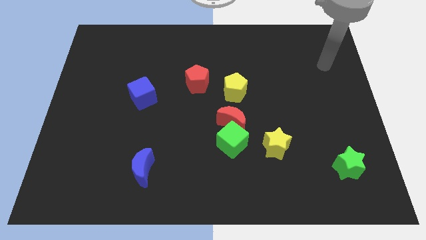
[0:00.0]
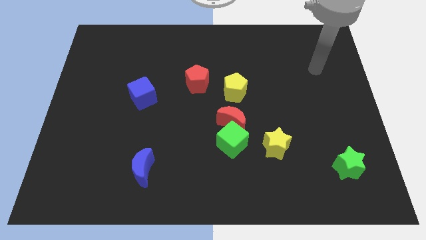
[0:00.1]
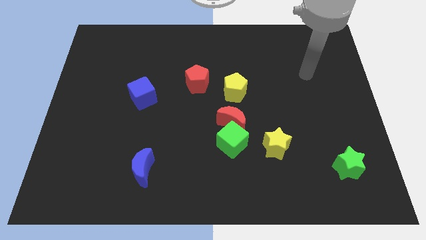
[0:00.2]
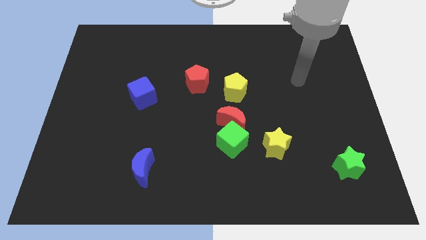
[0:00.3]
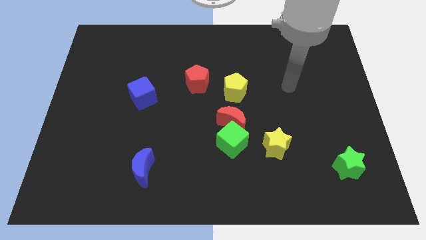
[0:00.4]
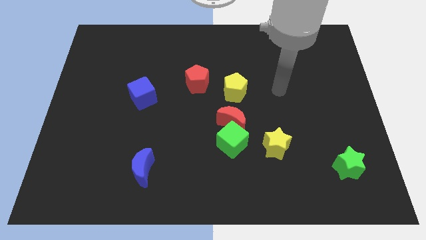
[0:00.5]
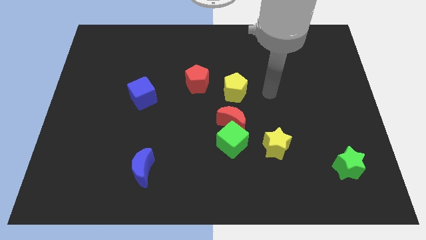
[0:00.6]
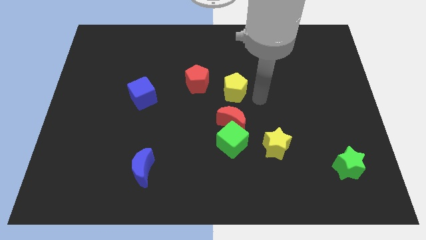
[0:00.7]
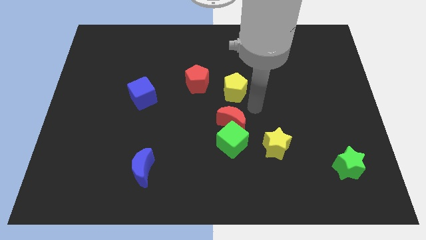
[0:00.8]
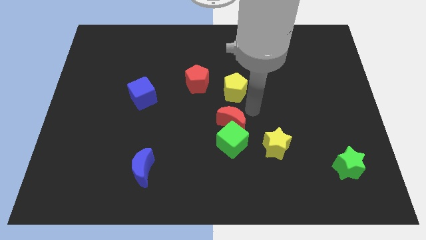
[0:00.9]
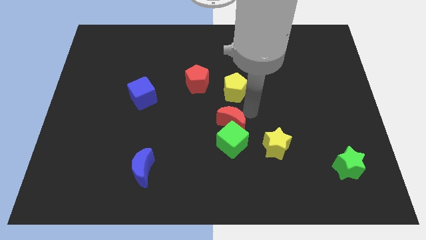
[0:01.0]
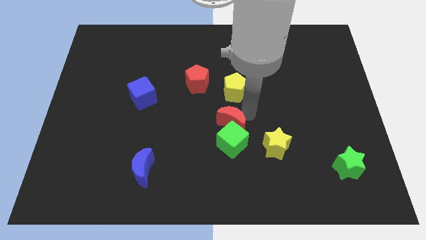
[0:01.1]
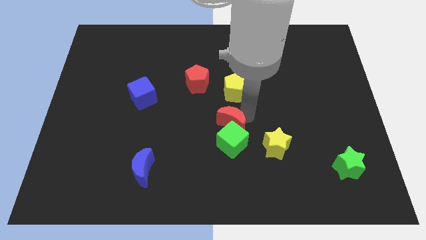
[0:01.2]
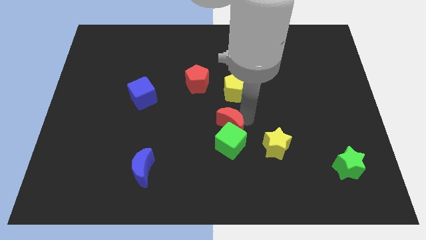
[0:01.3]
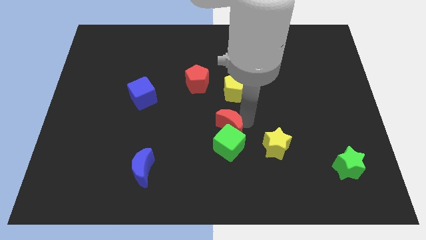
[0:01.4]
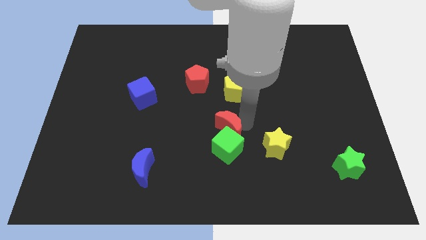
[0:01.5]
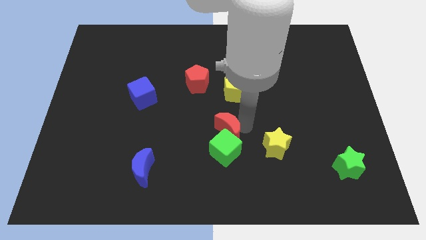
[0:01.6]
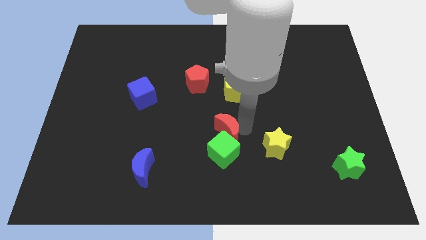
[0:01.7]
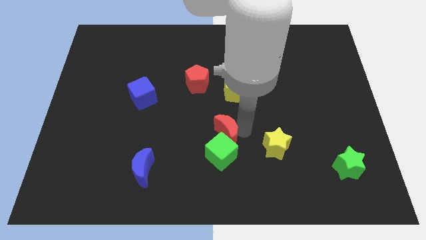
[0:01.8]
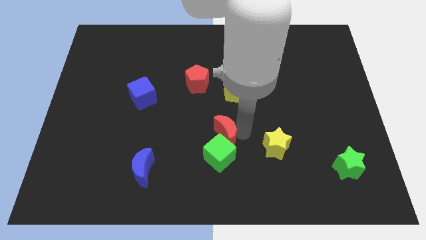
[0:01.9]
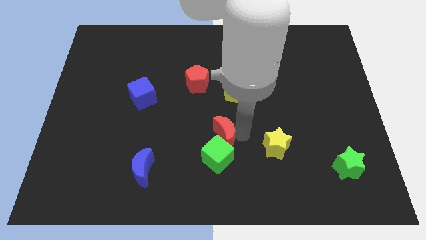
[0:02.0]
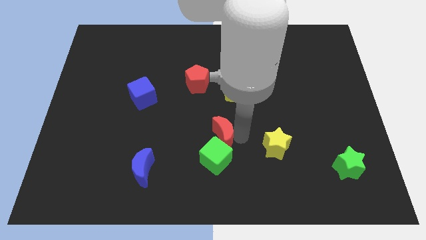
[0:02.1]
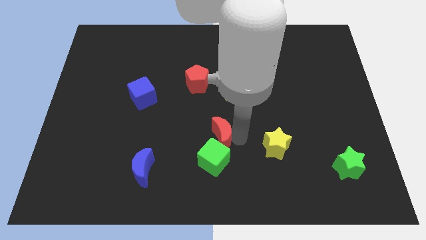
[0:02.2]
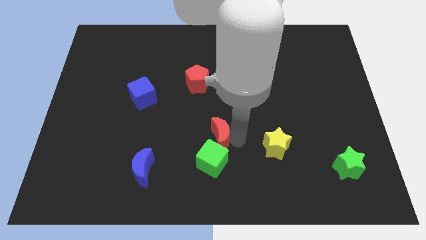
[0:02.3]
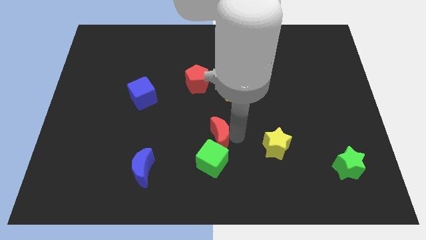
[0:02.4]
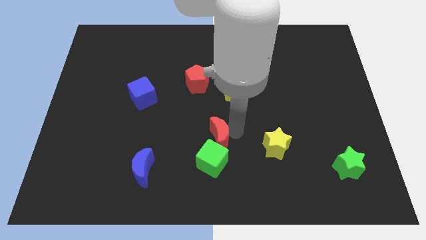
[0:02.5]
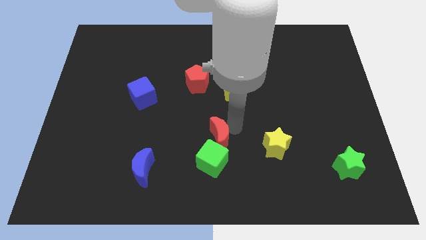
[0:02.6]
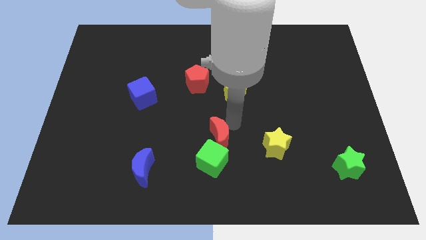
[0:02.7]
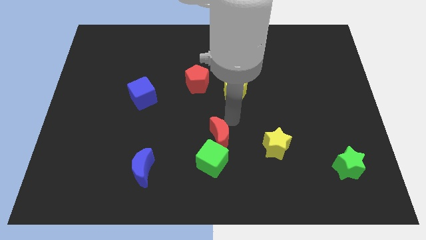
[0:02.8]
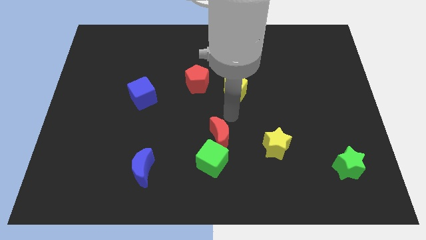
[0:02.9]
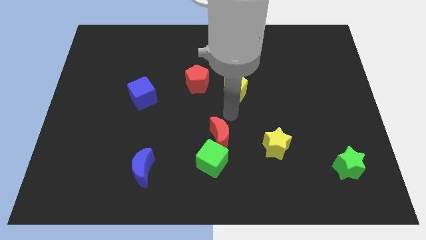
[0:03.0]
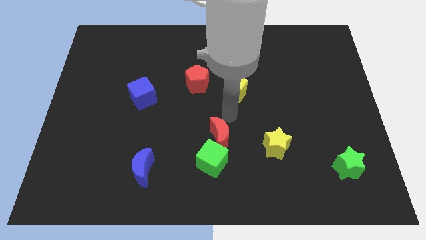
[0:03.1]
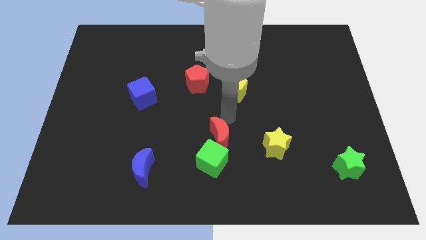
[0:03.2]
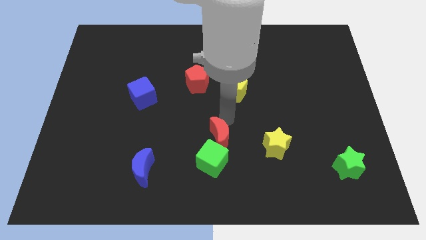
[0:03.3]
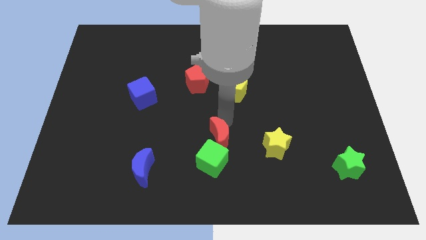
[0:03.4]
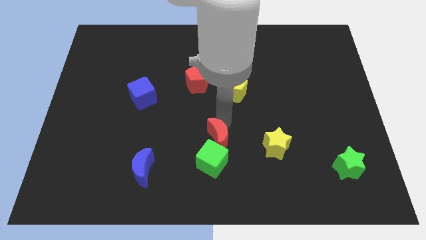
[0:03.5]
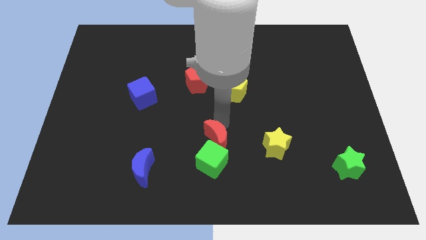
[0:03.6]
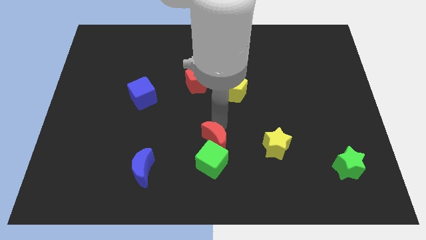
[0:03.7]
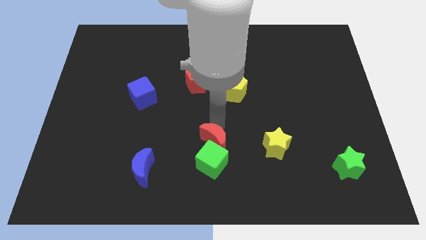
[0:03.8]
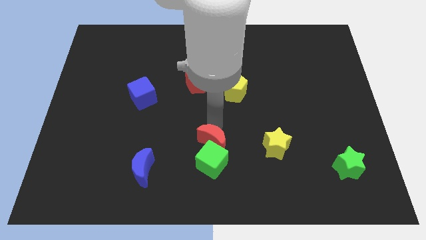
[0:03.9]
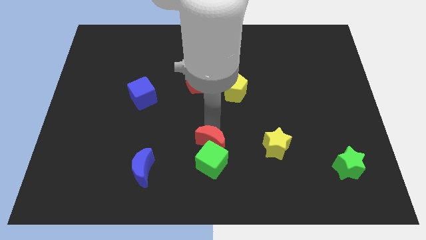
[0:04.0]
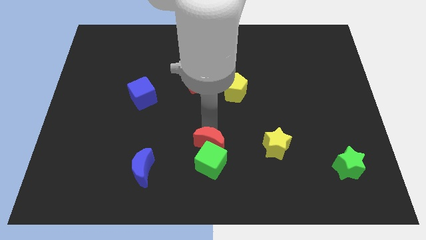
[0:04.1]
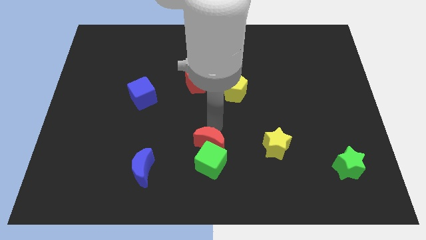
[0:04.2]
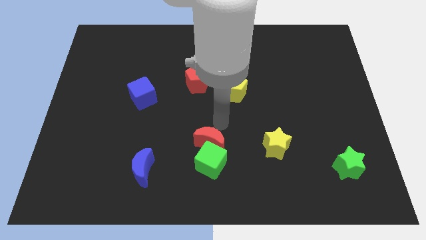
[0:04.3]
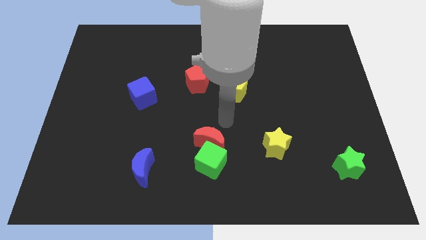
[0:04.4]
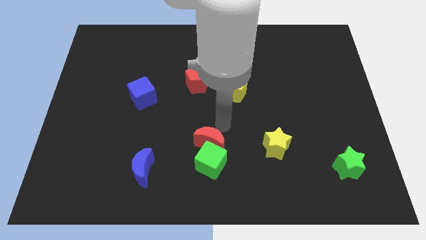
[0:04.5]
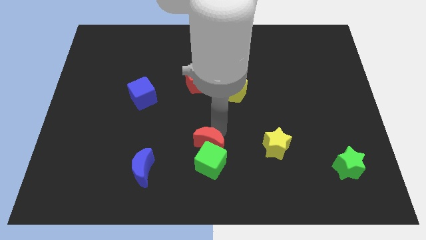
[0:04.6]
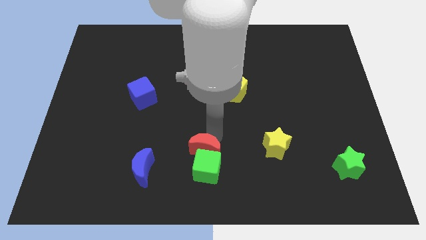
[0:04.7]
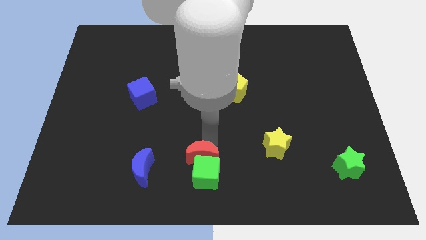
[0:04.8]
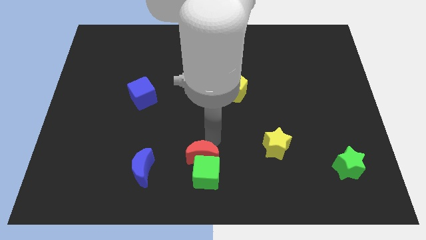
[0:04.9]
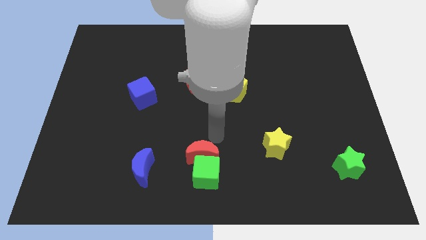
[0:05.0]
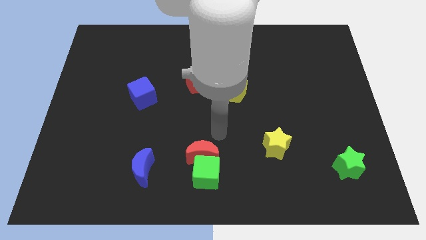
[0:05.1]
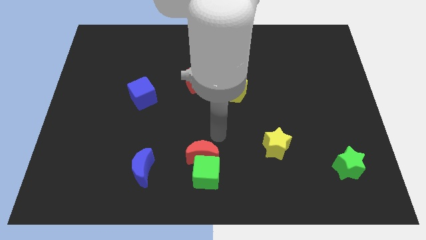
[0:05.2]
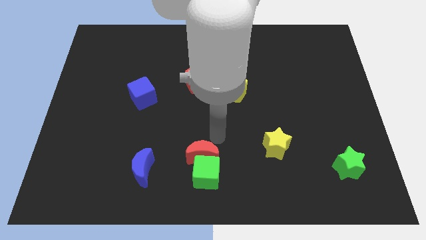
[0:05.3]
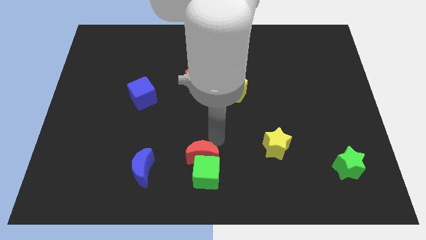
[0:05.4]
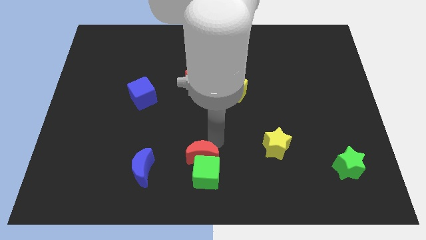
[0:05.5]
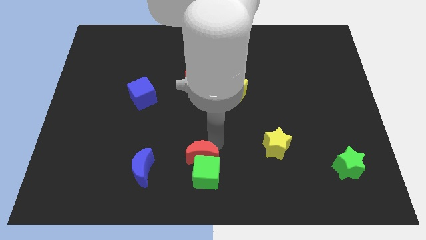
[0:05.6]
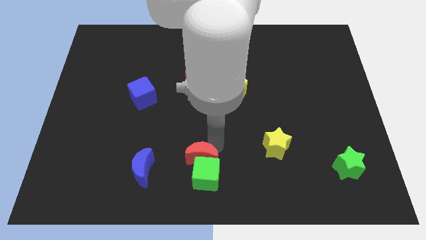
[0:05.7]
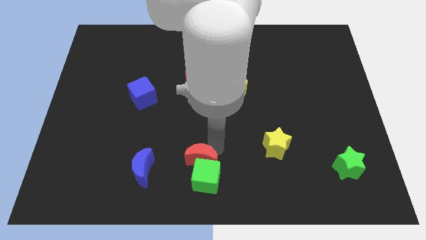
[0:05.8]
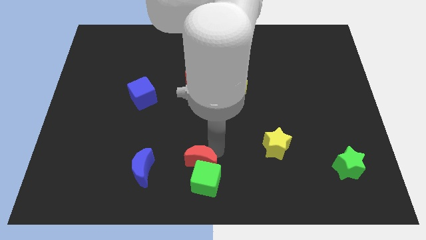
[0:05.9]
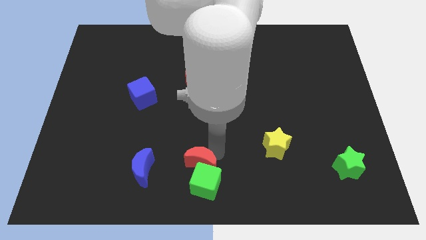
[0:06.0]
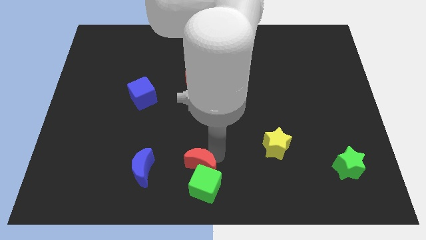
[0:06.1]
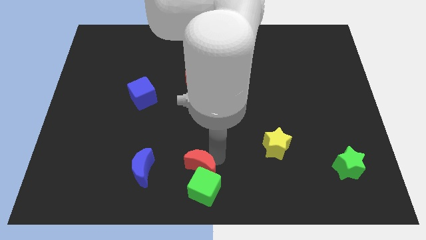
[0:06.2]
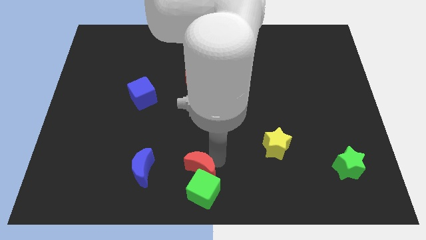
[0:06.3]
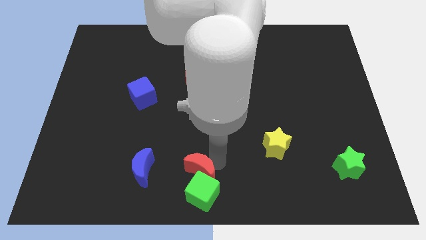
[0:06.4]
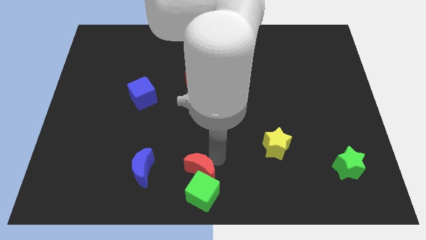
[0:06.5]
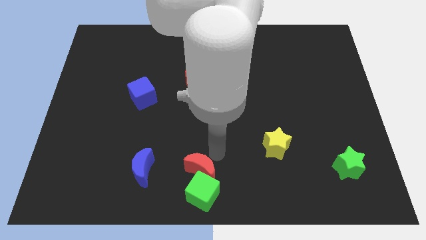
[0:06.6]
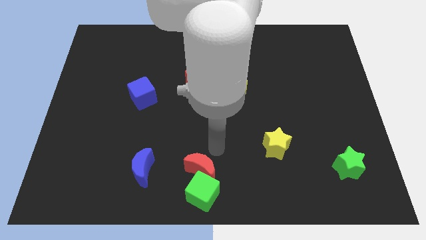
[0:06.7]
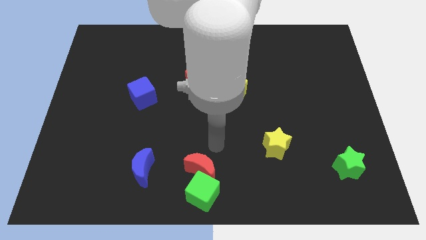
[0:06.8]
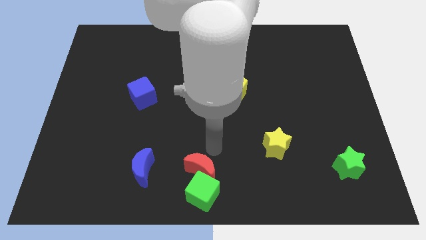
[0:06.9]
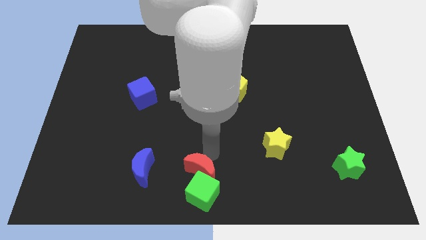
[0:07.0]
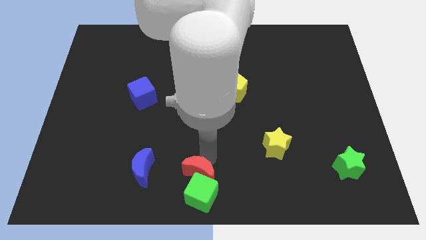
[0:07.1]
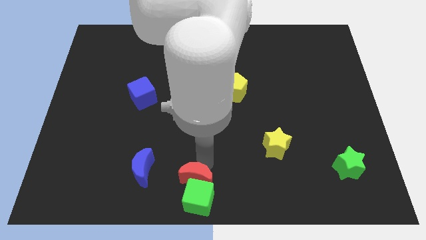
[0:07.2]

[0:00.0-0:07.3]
move the red moon away from the green cube and yellow pentagon

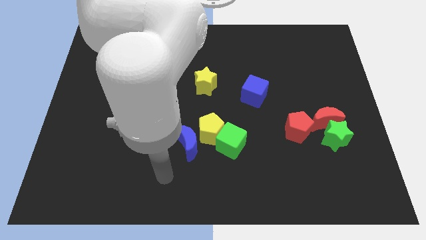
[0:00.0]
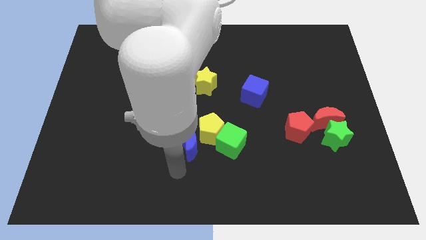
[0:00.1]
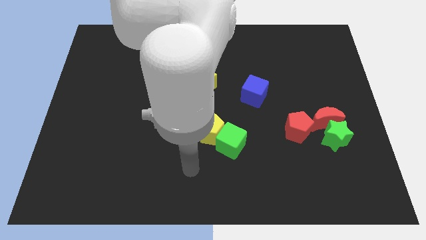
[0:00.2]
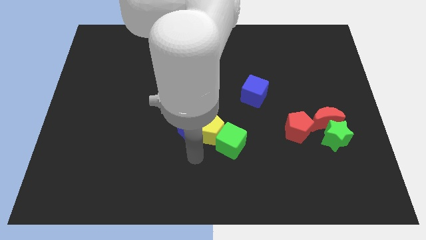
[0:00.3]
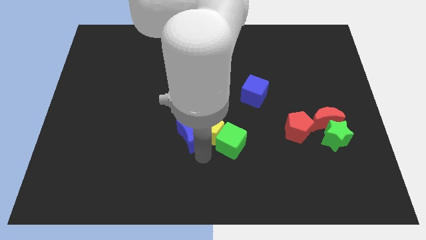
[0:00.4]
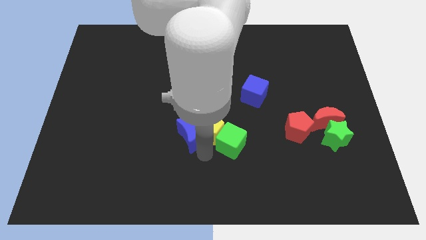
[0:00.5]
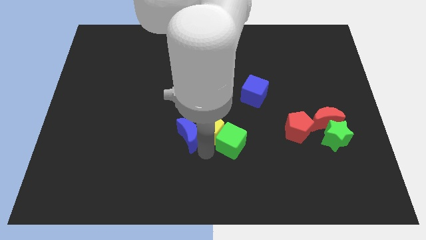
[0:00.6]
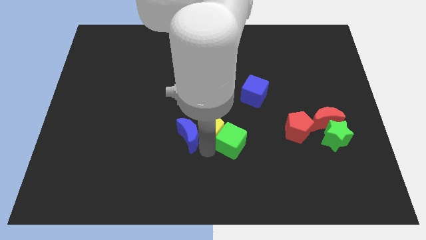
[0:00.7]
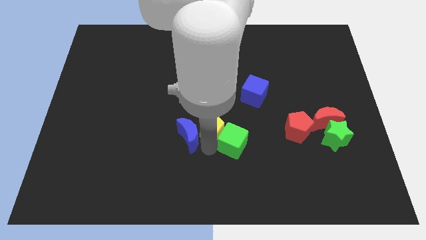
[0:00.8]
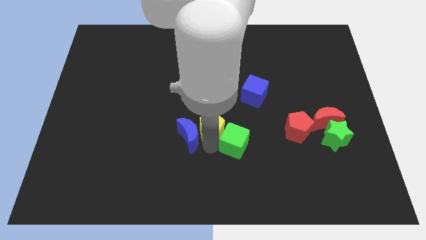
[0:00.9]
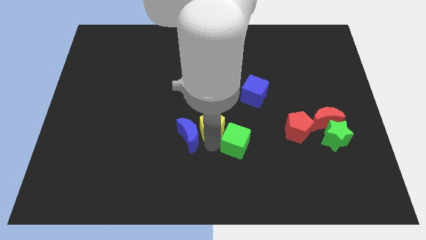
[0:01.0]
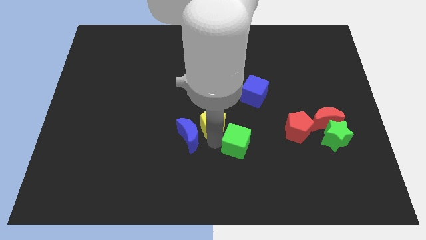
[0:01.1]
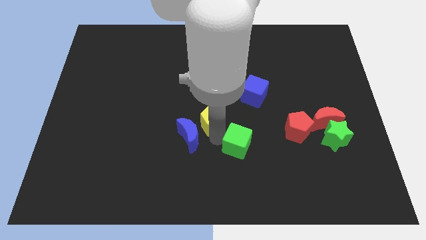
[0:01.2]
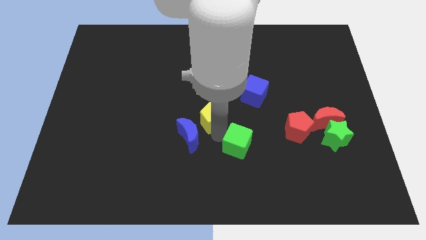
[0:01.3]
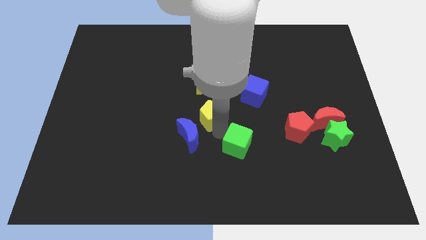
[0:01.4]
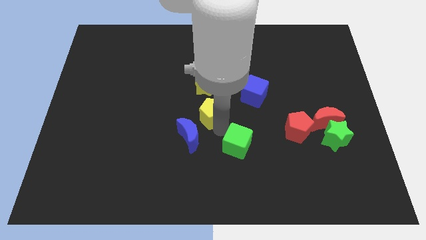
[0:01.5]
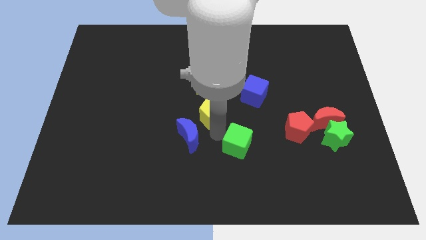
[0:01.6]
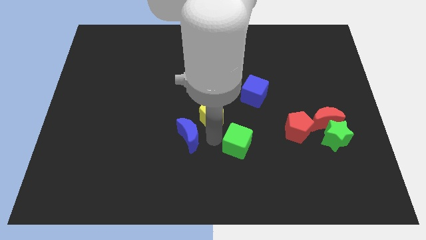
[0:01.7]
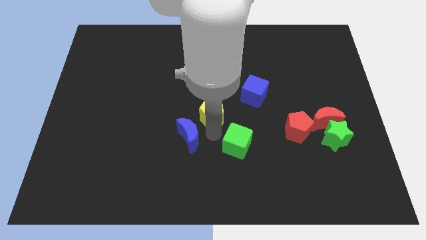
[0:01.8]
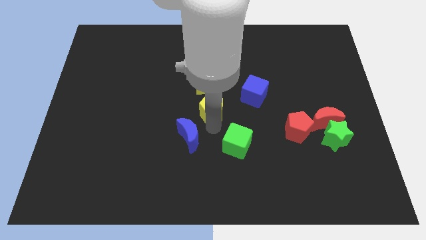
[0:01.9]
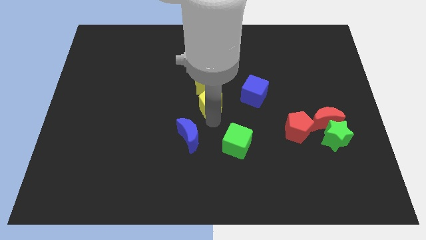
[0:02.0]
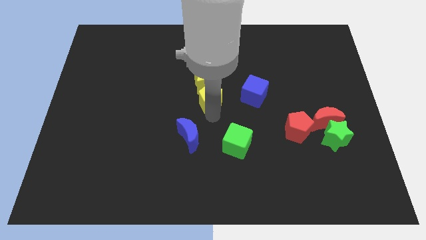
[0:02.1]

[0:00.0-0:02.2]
pull the yellow pentagon apart from the green cube and blue moon
